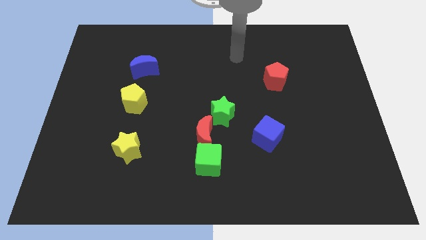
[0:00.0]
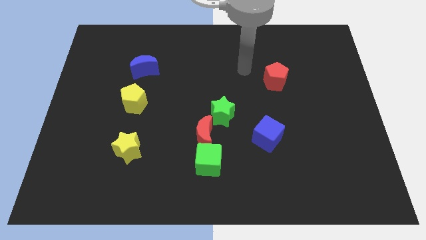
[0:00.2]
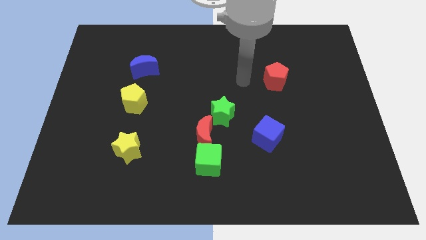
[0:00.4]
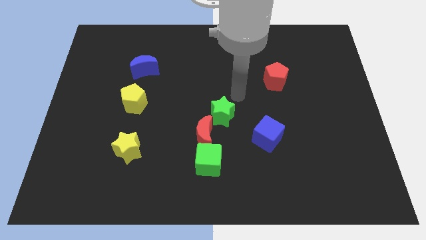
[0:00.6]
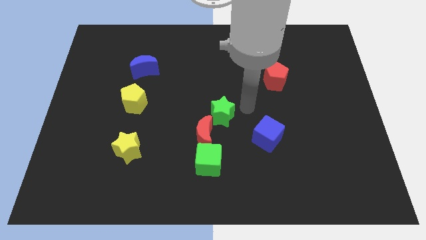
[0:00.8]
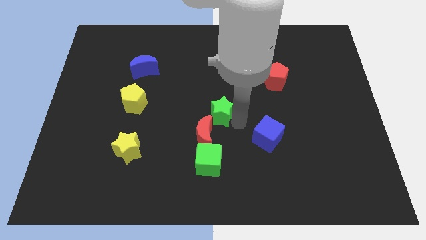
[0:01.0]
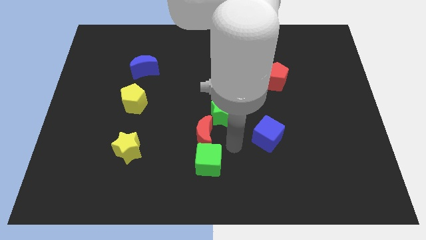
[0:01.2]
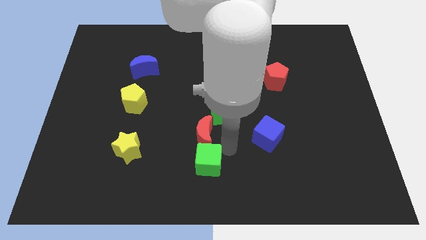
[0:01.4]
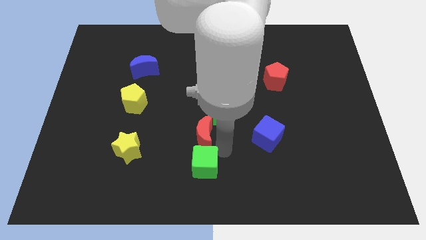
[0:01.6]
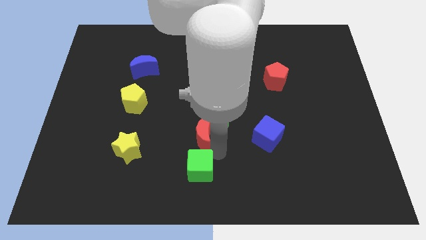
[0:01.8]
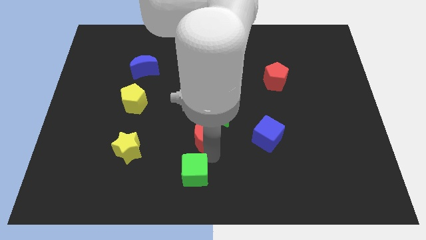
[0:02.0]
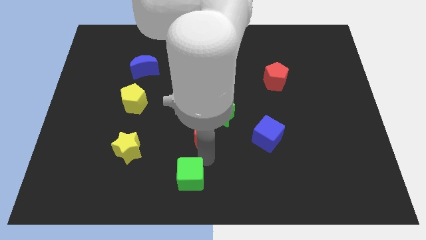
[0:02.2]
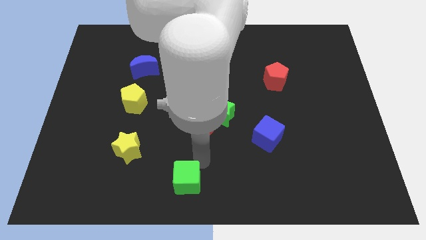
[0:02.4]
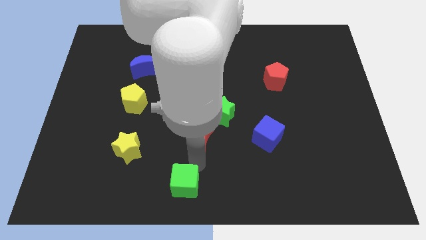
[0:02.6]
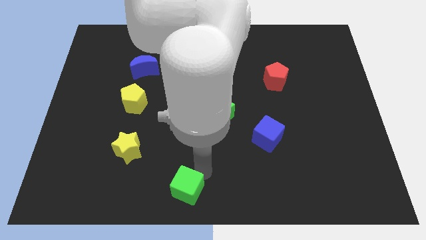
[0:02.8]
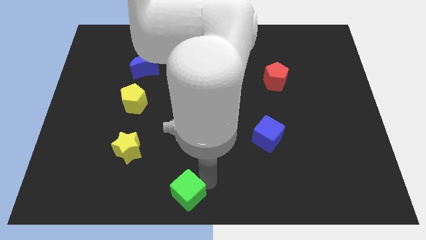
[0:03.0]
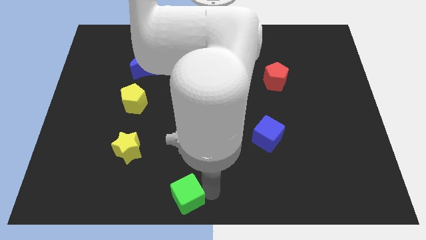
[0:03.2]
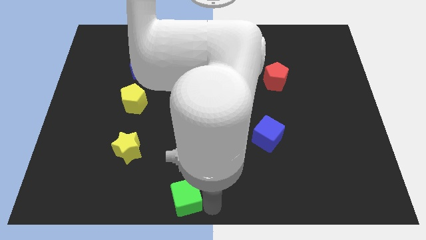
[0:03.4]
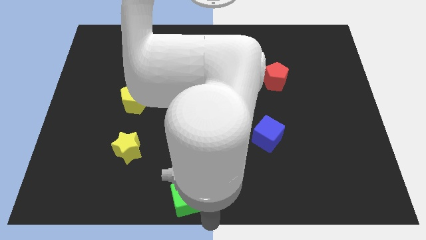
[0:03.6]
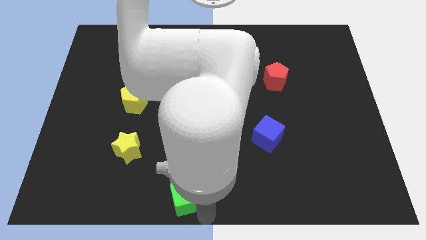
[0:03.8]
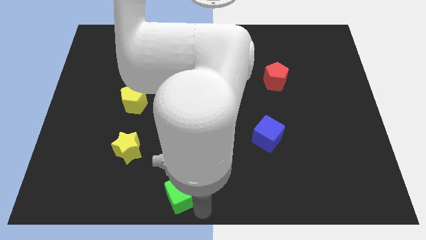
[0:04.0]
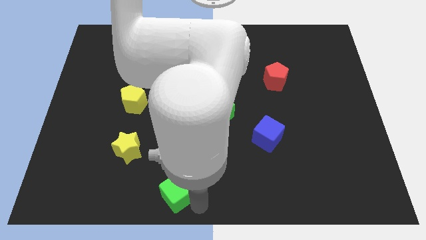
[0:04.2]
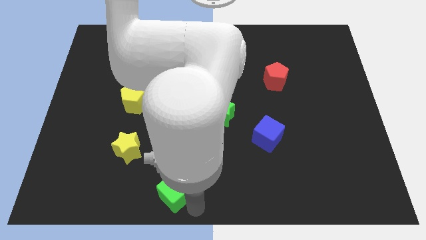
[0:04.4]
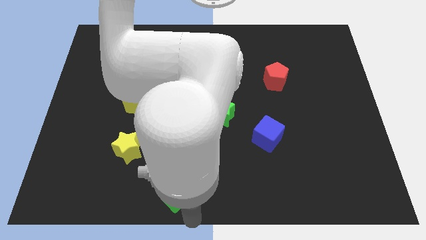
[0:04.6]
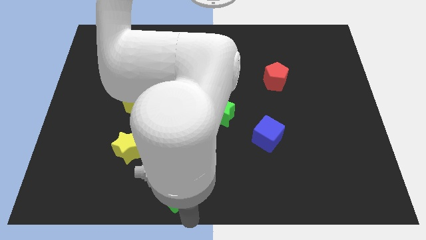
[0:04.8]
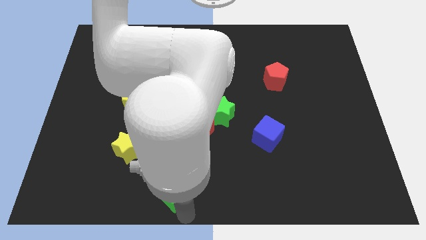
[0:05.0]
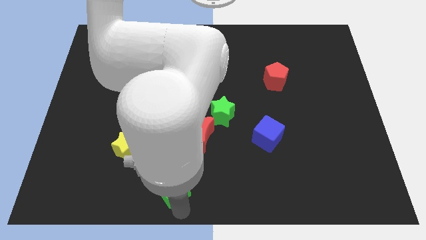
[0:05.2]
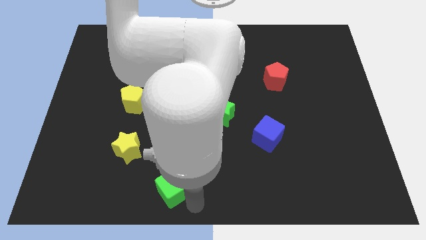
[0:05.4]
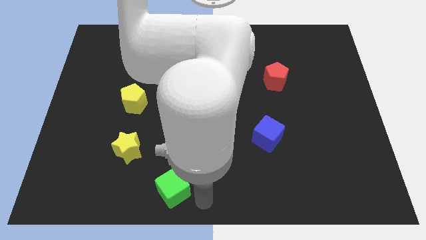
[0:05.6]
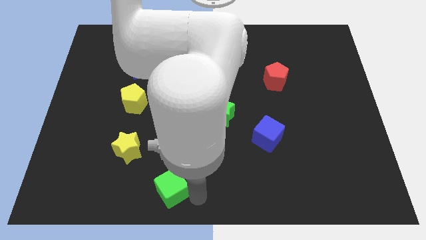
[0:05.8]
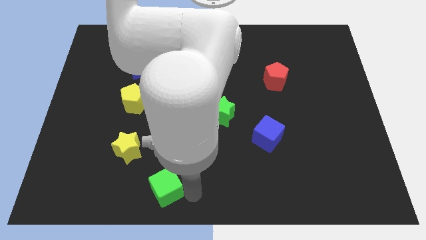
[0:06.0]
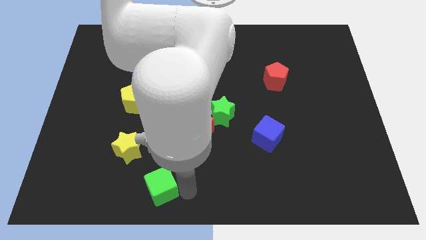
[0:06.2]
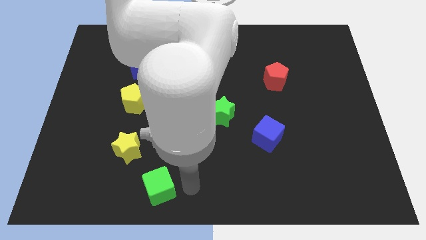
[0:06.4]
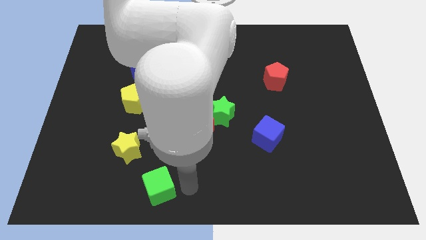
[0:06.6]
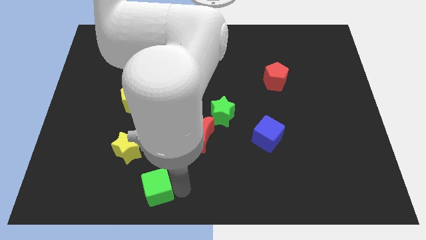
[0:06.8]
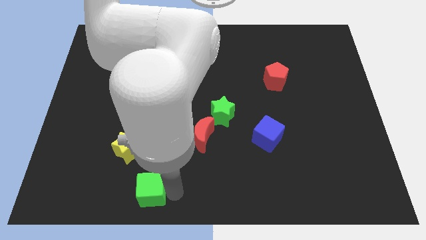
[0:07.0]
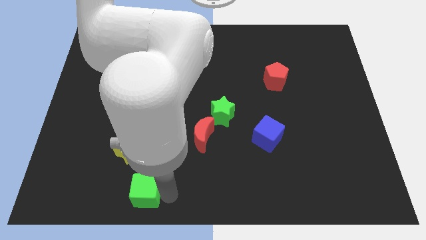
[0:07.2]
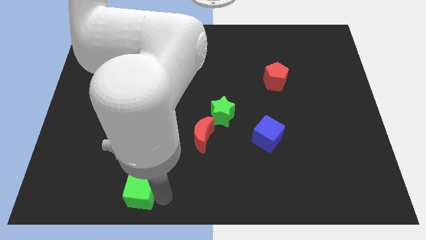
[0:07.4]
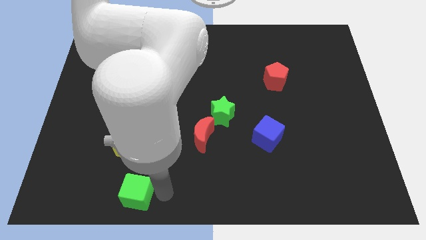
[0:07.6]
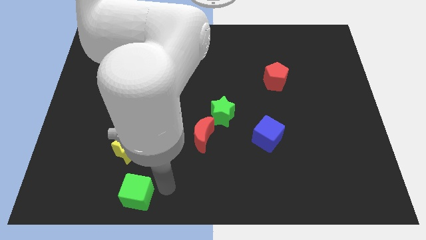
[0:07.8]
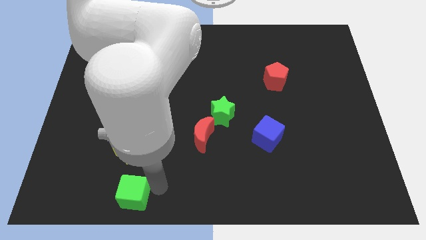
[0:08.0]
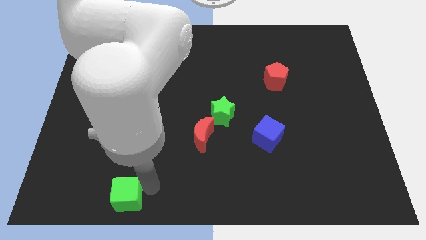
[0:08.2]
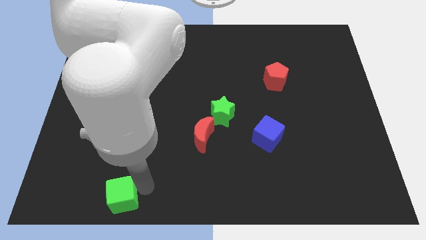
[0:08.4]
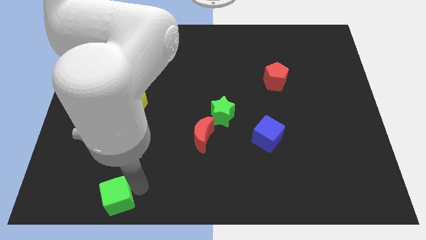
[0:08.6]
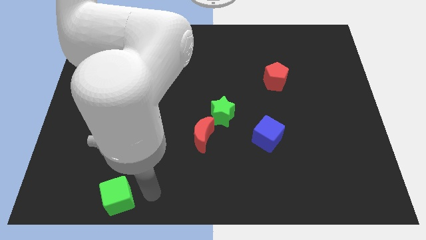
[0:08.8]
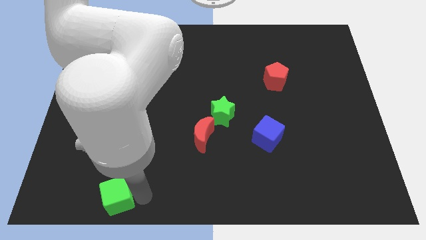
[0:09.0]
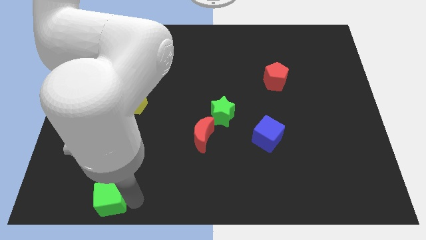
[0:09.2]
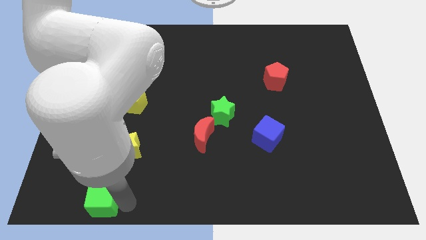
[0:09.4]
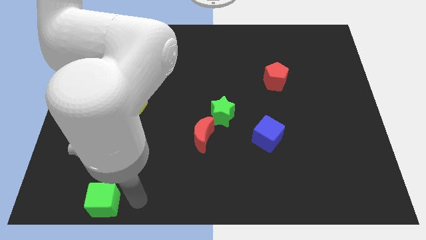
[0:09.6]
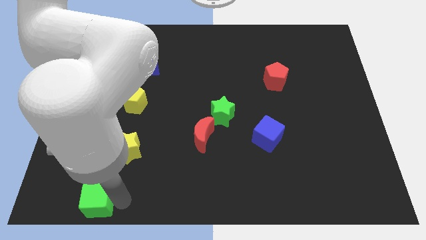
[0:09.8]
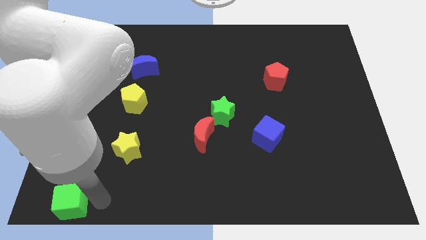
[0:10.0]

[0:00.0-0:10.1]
push the green cube to the lower left corner
